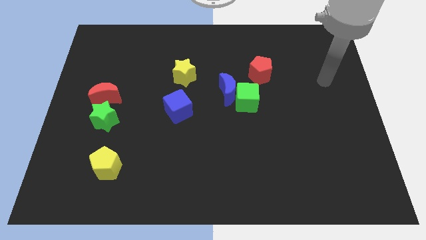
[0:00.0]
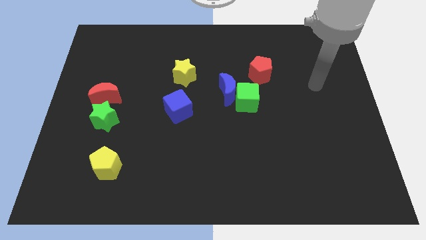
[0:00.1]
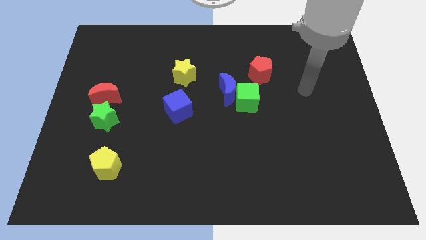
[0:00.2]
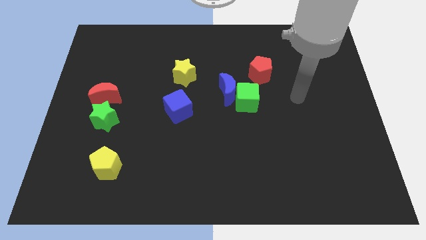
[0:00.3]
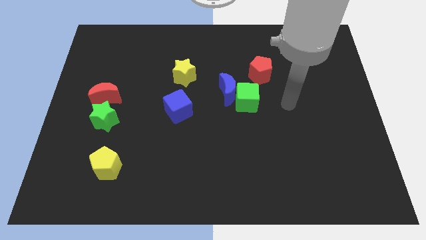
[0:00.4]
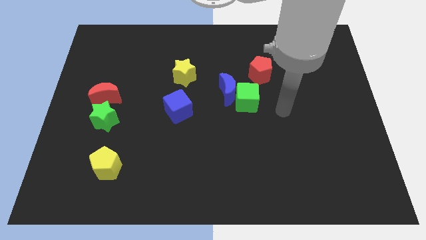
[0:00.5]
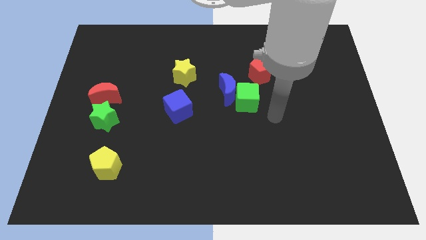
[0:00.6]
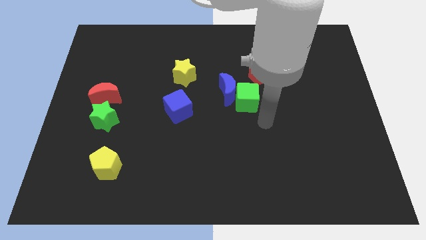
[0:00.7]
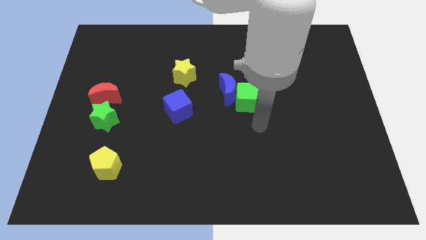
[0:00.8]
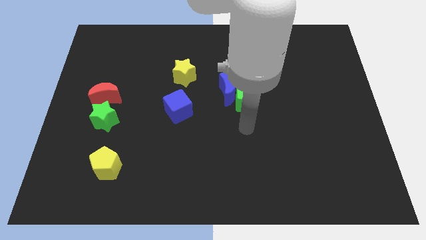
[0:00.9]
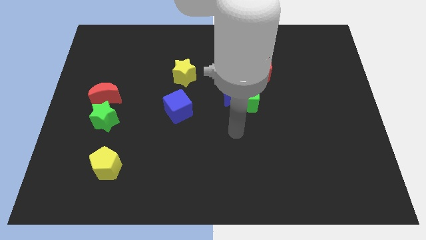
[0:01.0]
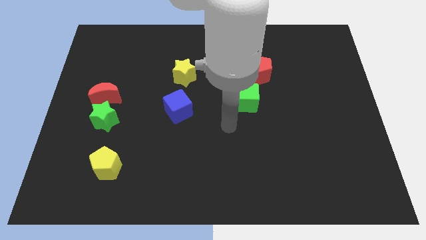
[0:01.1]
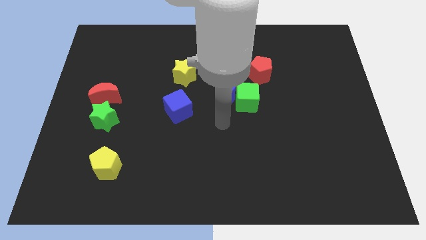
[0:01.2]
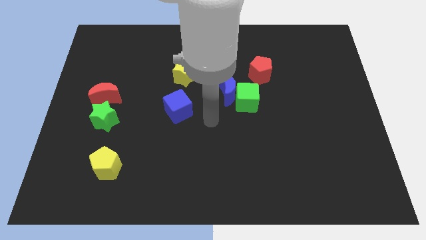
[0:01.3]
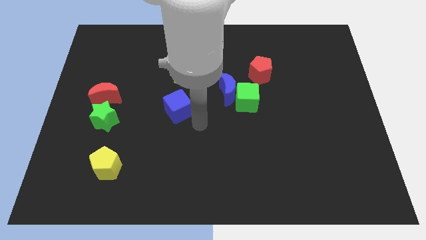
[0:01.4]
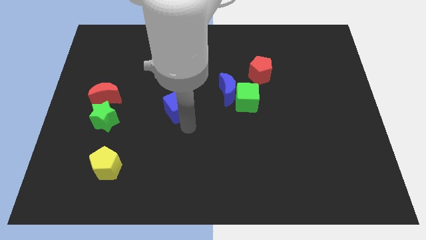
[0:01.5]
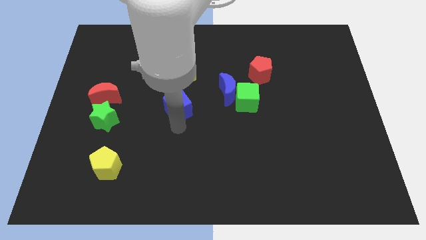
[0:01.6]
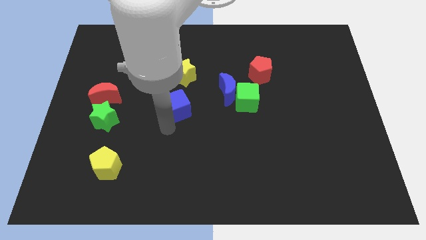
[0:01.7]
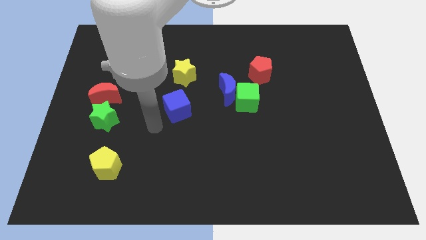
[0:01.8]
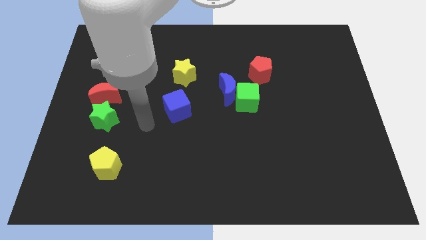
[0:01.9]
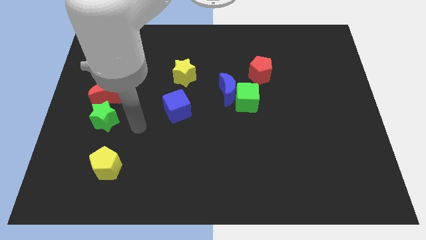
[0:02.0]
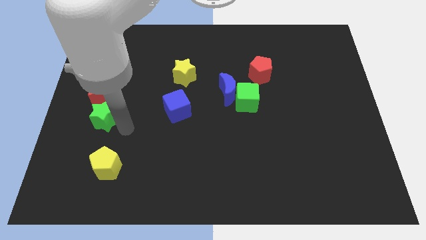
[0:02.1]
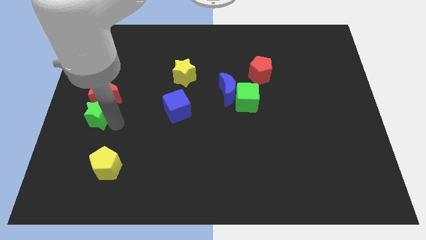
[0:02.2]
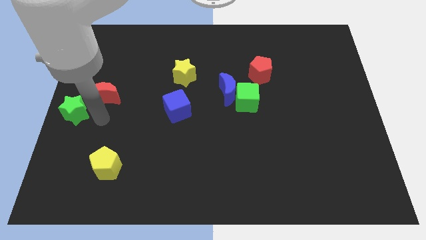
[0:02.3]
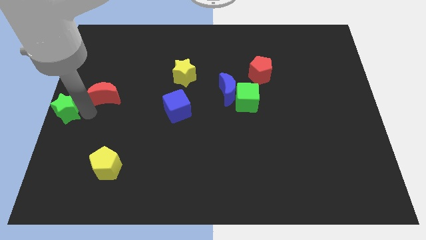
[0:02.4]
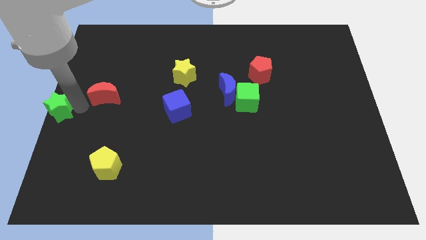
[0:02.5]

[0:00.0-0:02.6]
move the red moon away from the green star

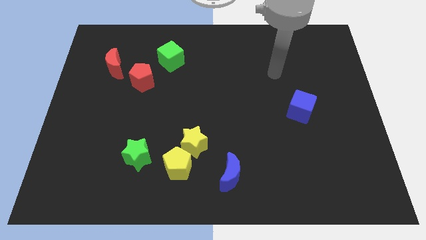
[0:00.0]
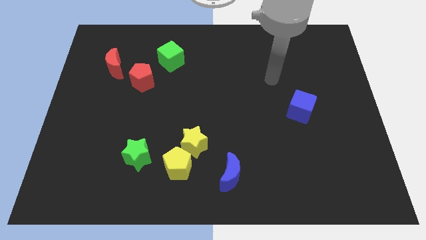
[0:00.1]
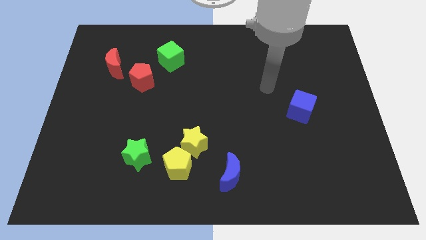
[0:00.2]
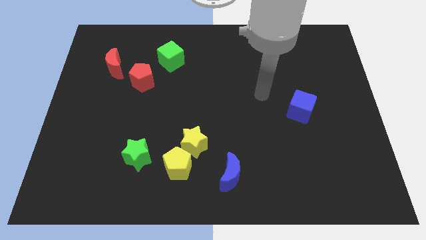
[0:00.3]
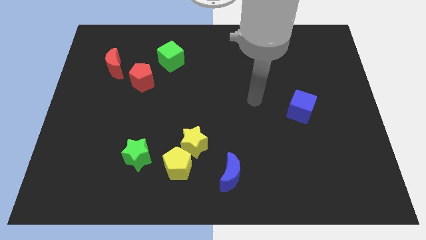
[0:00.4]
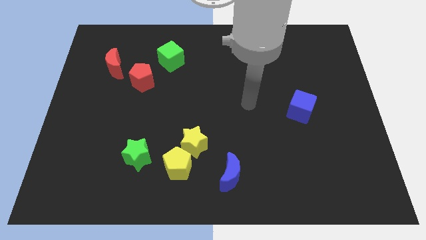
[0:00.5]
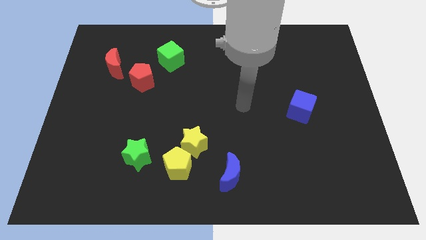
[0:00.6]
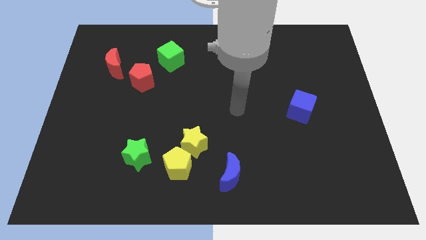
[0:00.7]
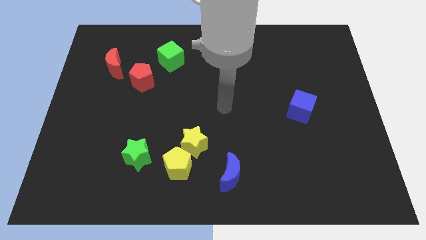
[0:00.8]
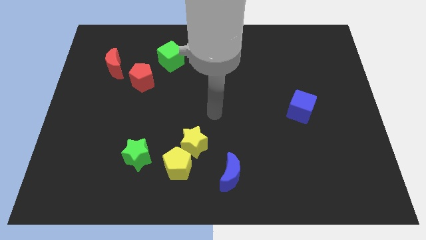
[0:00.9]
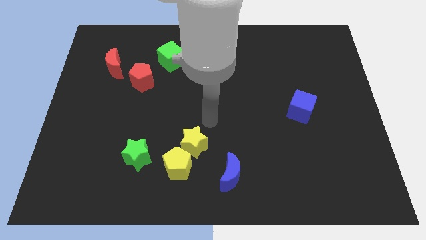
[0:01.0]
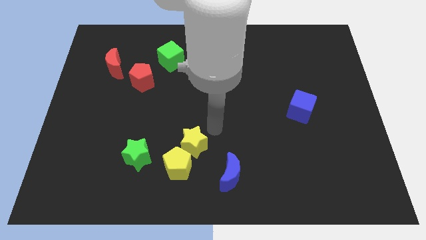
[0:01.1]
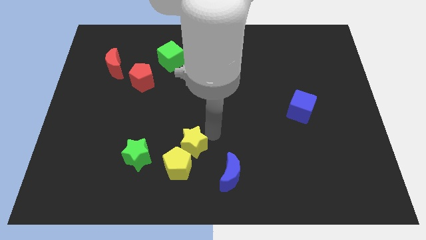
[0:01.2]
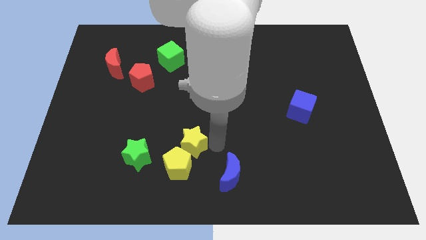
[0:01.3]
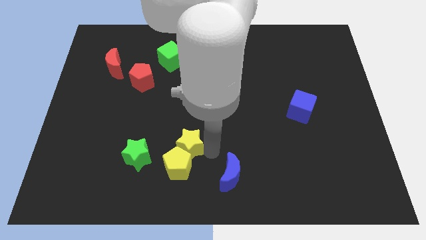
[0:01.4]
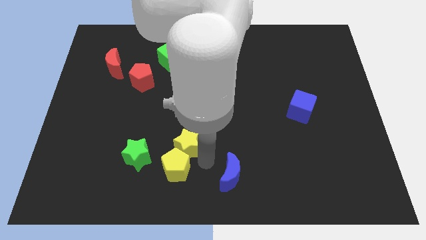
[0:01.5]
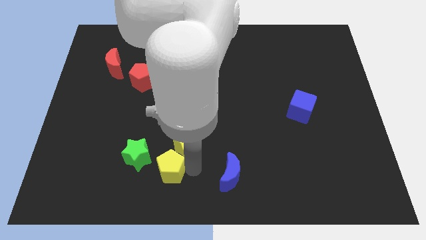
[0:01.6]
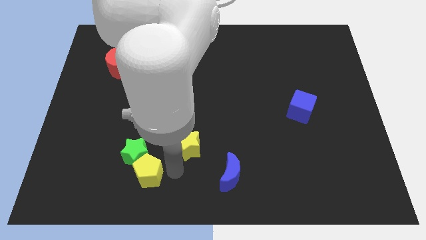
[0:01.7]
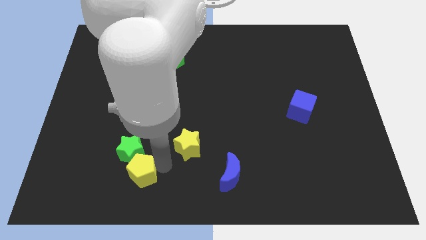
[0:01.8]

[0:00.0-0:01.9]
separate the yellow star from the yellow pentagon

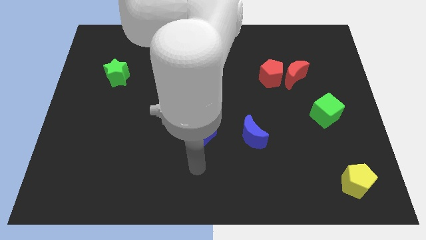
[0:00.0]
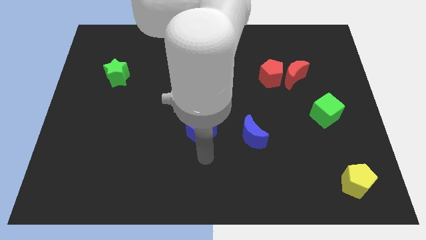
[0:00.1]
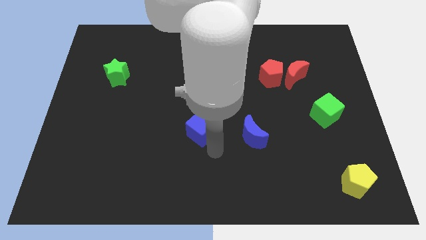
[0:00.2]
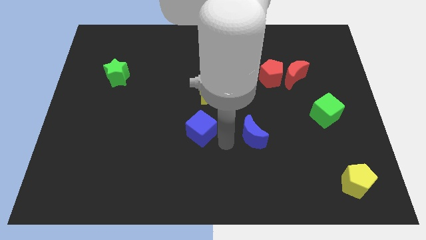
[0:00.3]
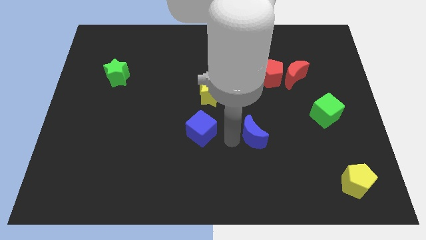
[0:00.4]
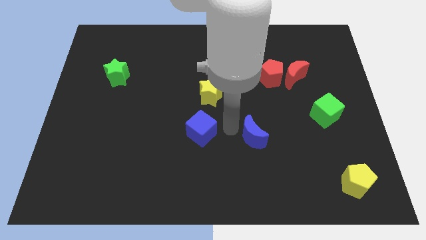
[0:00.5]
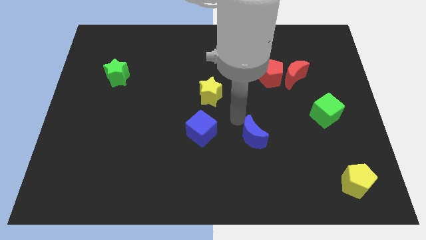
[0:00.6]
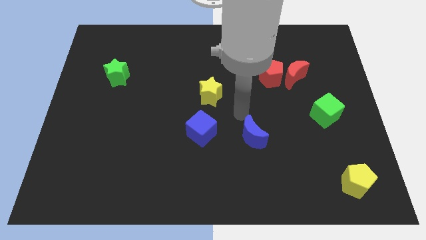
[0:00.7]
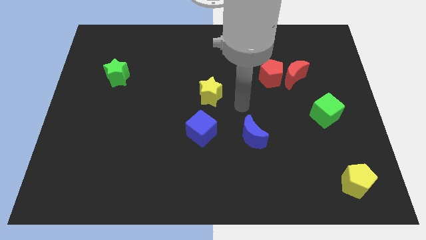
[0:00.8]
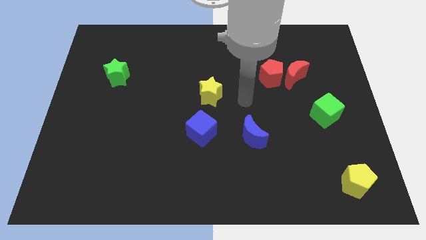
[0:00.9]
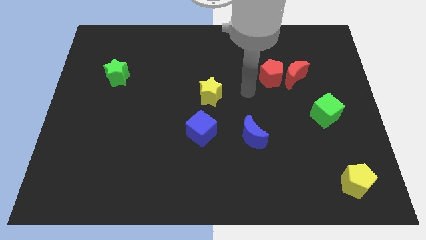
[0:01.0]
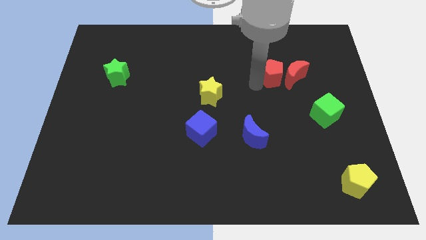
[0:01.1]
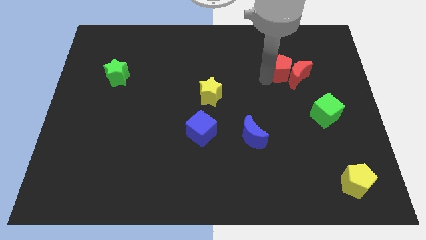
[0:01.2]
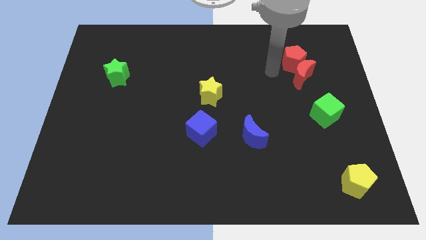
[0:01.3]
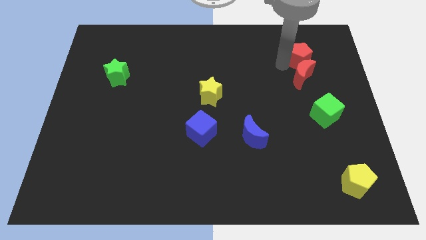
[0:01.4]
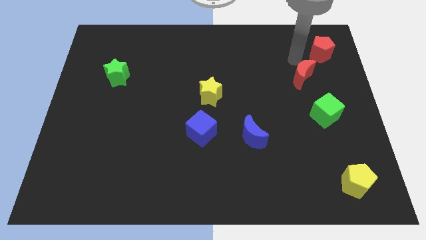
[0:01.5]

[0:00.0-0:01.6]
separate the red moon from the red pentagon

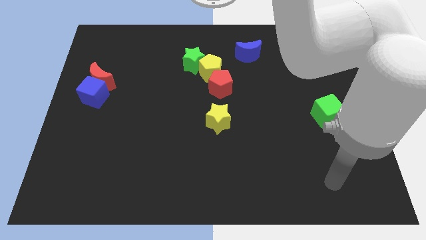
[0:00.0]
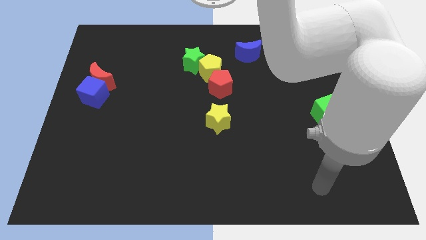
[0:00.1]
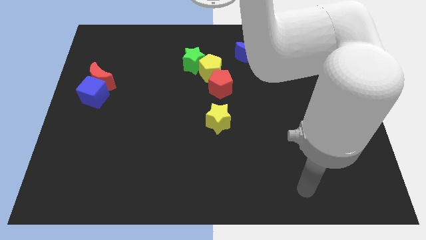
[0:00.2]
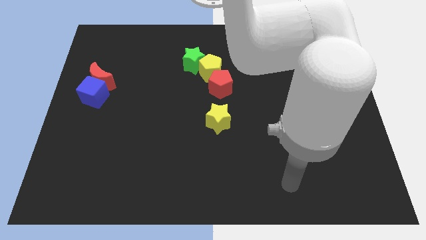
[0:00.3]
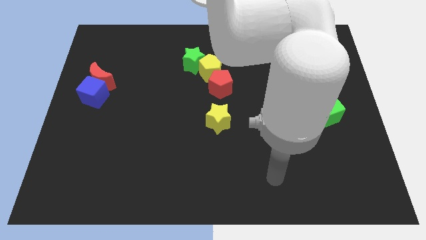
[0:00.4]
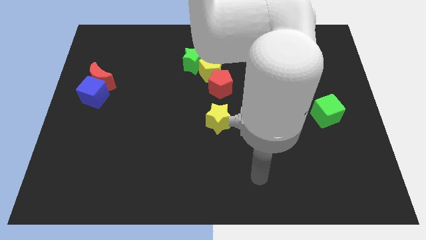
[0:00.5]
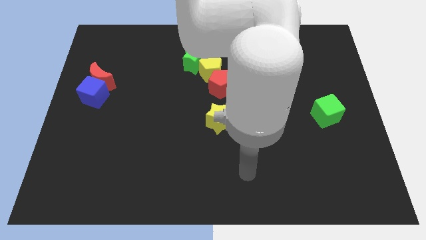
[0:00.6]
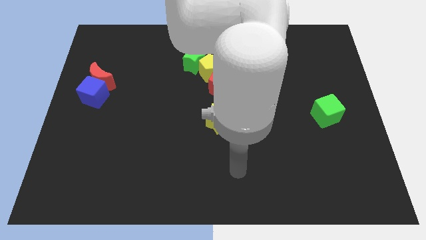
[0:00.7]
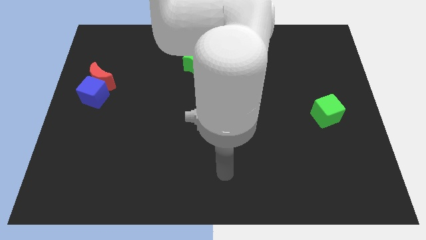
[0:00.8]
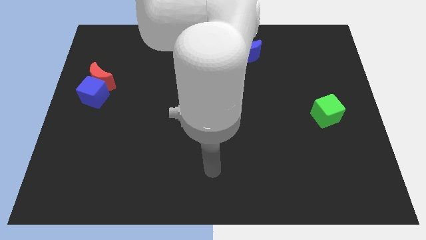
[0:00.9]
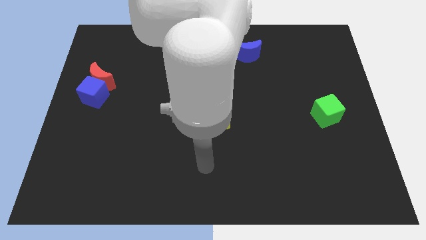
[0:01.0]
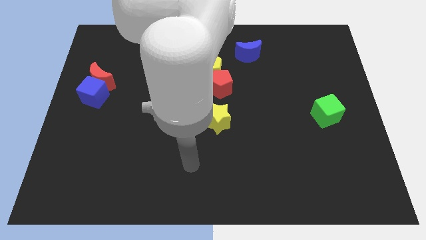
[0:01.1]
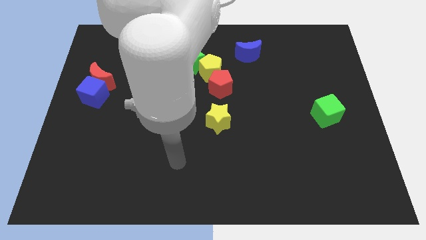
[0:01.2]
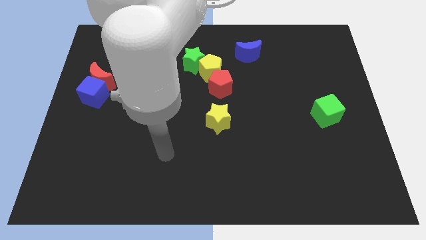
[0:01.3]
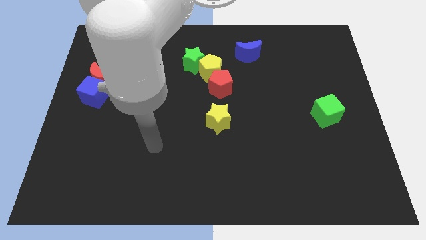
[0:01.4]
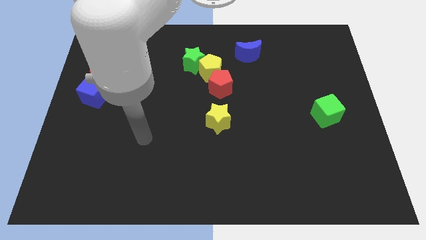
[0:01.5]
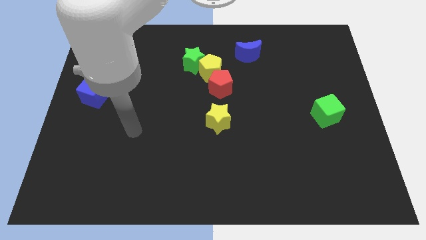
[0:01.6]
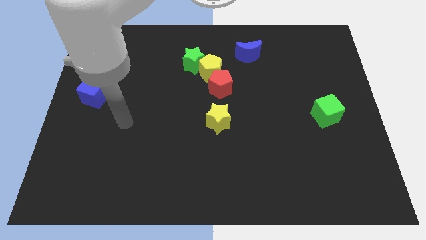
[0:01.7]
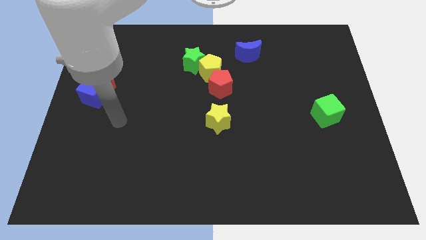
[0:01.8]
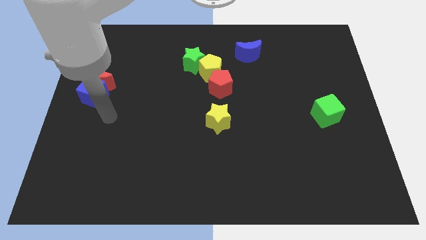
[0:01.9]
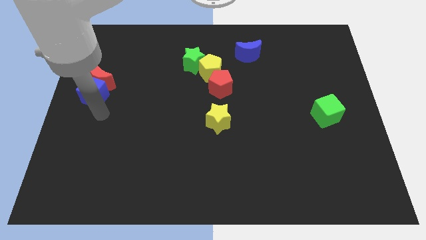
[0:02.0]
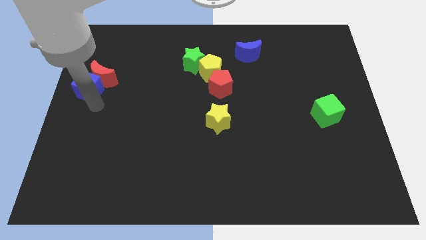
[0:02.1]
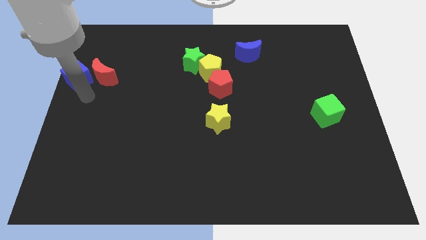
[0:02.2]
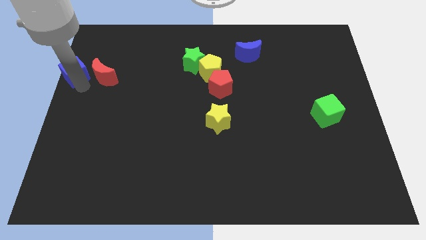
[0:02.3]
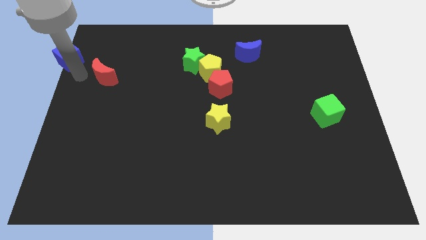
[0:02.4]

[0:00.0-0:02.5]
move the red moon away from the blue cube

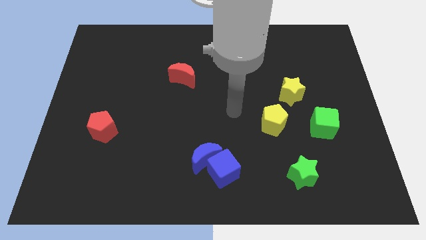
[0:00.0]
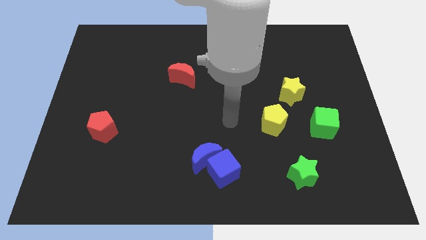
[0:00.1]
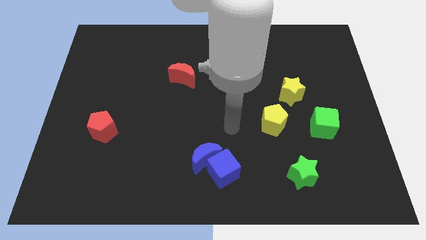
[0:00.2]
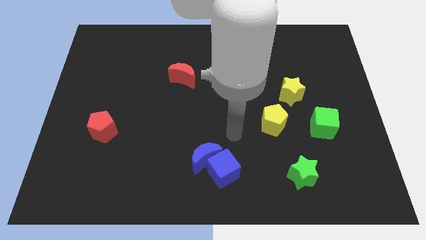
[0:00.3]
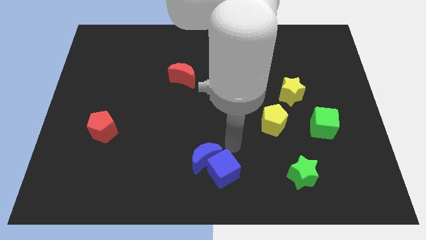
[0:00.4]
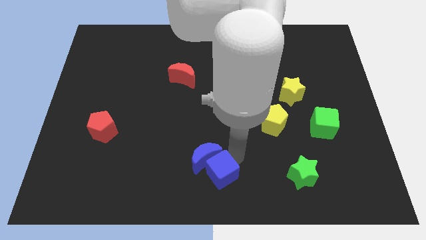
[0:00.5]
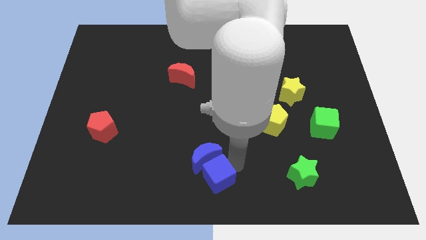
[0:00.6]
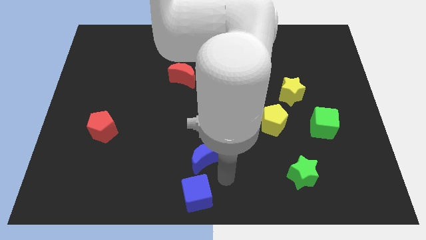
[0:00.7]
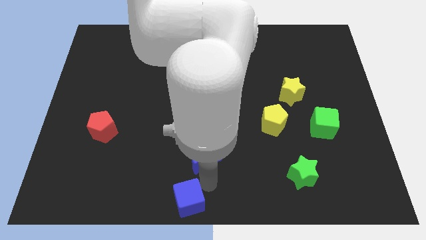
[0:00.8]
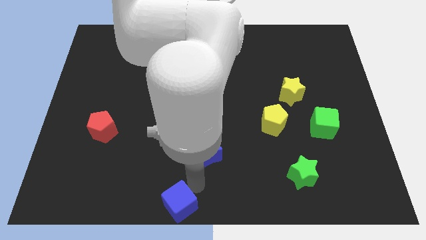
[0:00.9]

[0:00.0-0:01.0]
pull the blue moon apart from the blue cube
